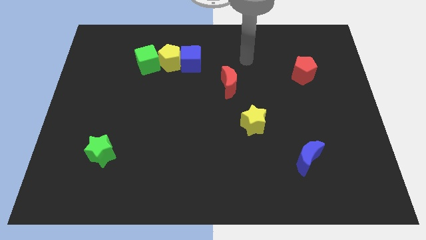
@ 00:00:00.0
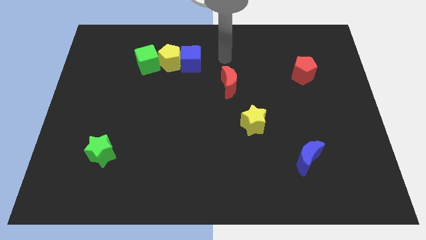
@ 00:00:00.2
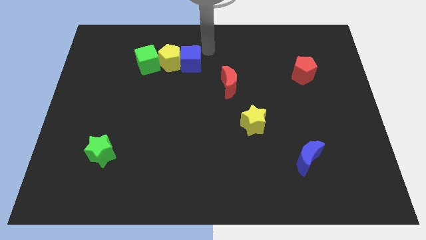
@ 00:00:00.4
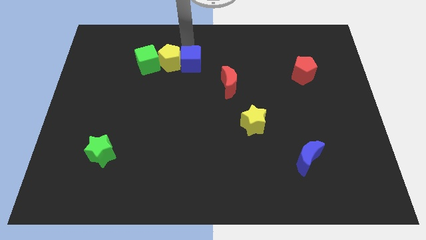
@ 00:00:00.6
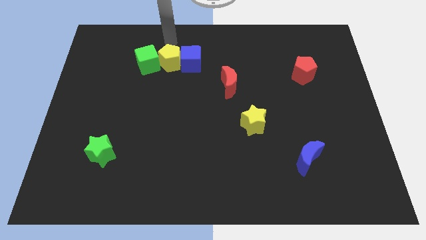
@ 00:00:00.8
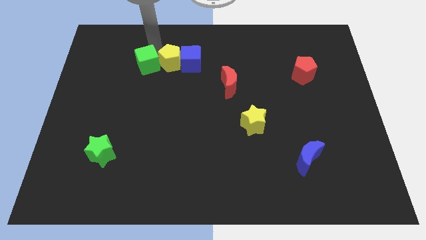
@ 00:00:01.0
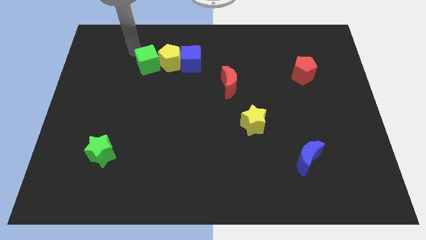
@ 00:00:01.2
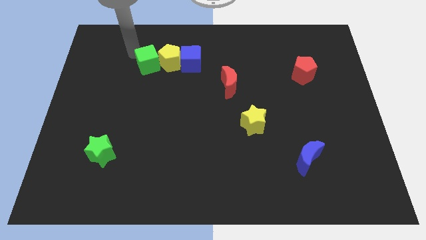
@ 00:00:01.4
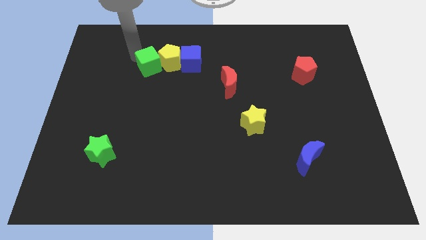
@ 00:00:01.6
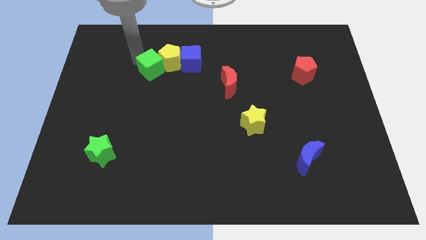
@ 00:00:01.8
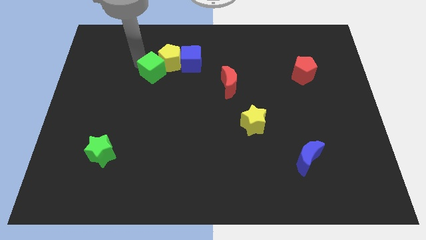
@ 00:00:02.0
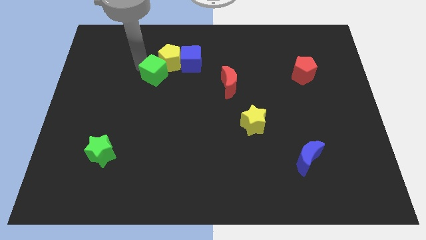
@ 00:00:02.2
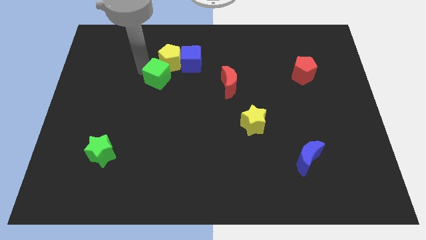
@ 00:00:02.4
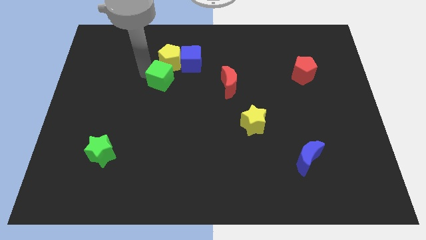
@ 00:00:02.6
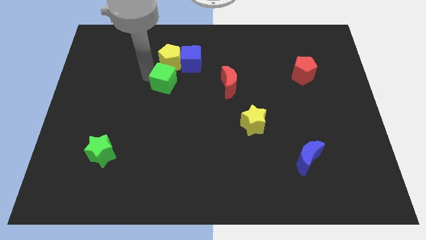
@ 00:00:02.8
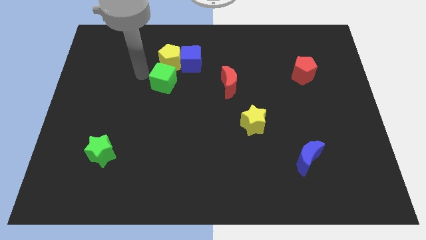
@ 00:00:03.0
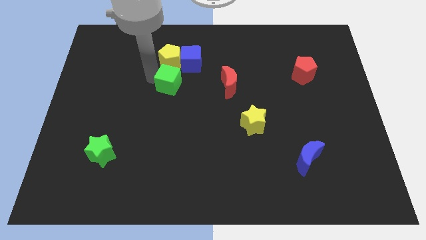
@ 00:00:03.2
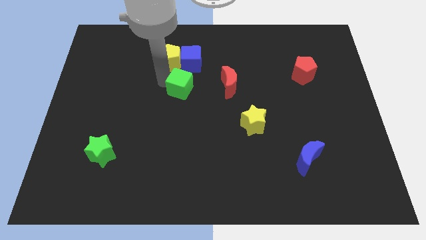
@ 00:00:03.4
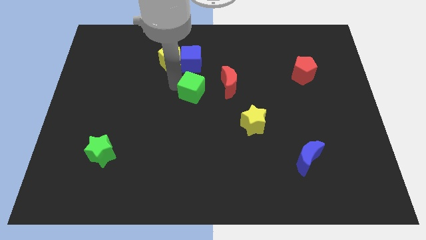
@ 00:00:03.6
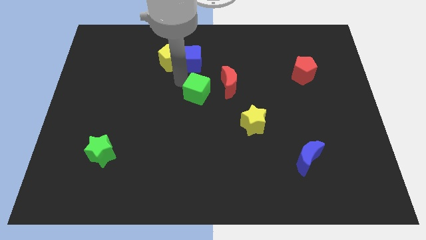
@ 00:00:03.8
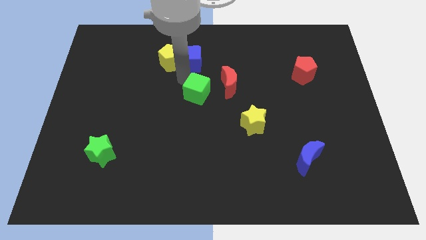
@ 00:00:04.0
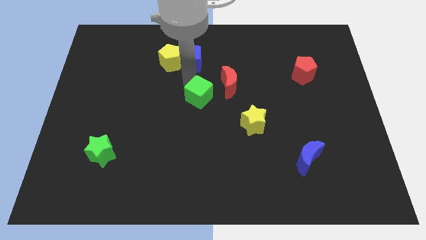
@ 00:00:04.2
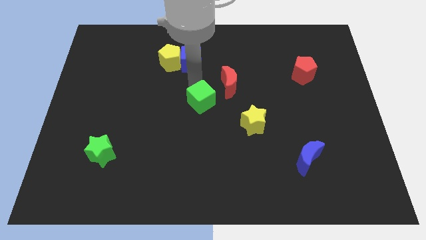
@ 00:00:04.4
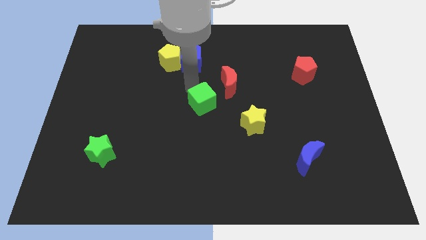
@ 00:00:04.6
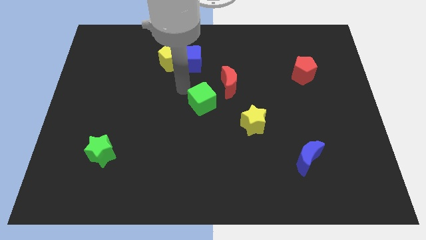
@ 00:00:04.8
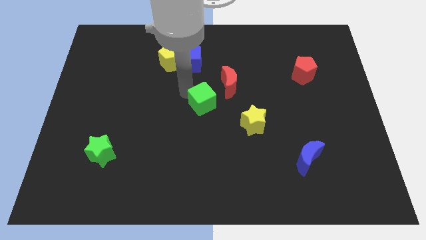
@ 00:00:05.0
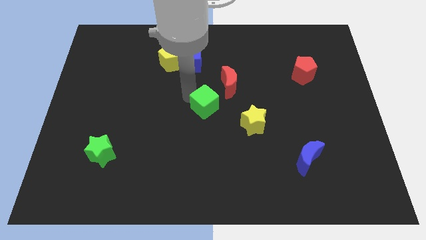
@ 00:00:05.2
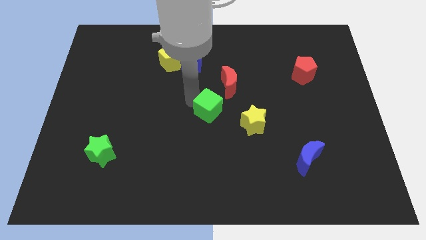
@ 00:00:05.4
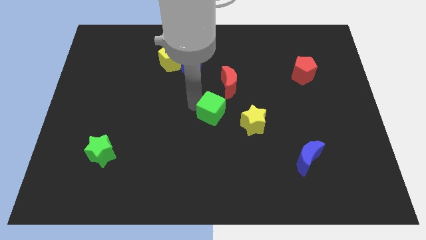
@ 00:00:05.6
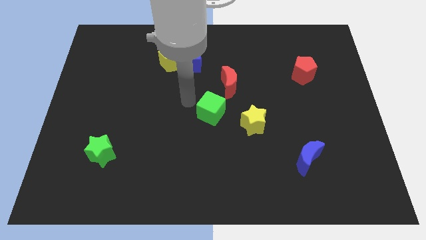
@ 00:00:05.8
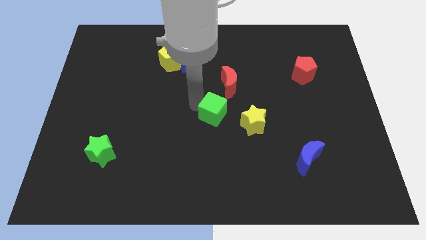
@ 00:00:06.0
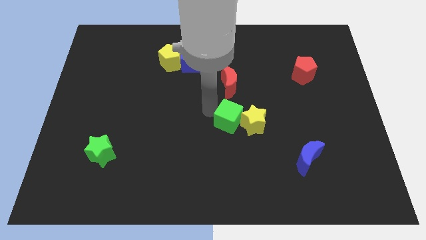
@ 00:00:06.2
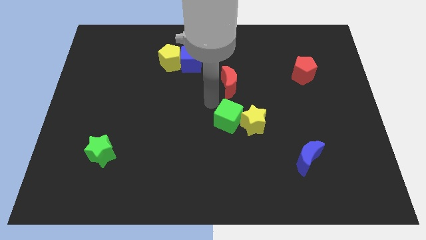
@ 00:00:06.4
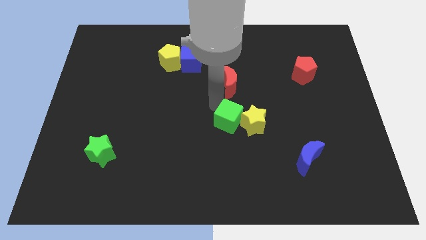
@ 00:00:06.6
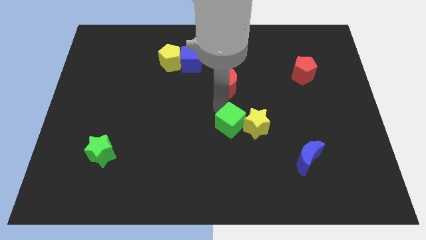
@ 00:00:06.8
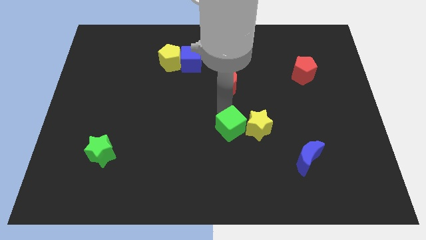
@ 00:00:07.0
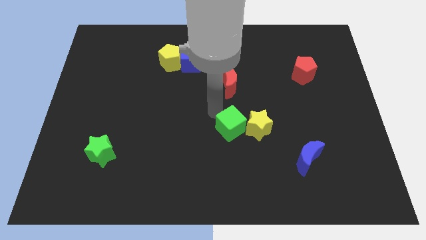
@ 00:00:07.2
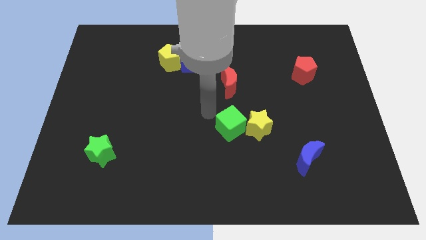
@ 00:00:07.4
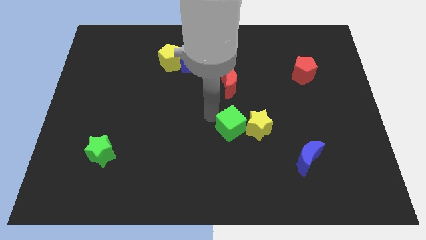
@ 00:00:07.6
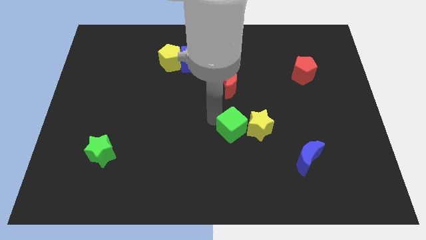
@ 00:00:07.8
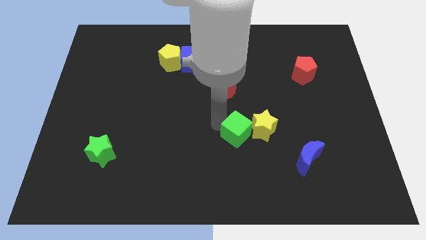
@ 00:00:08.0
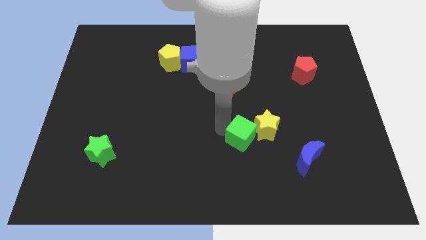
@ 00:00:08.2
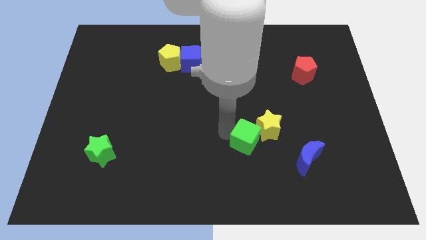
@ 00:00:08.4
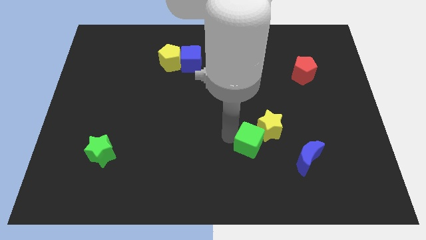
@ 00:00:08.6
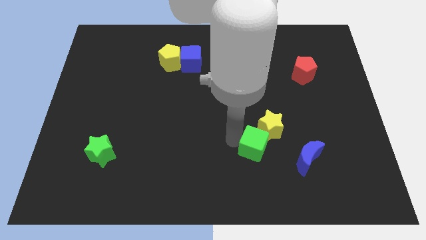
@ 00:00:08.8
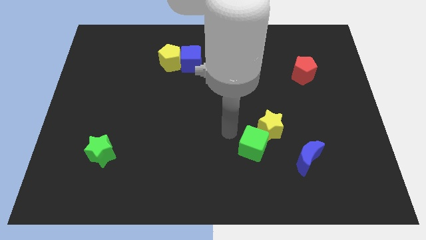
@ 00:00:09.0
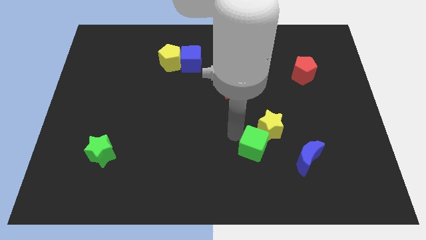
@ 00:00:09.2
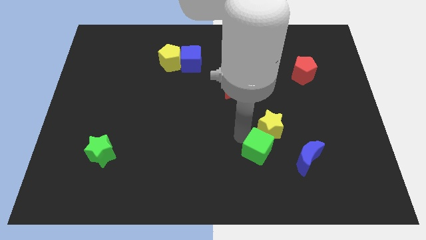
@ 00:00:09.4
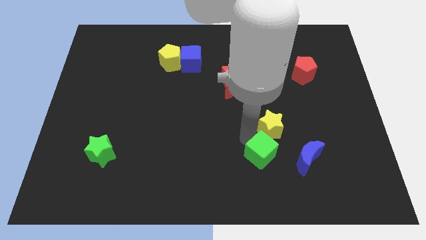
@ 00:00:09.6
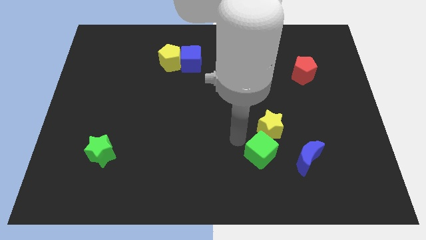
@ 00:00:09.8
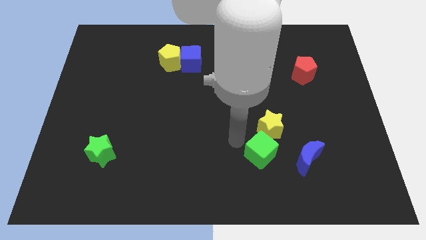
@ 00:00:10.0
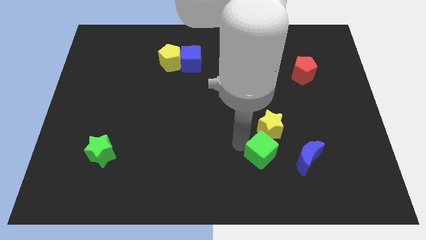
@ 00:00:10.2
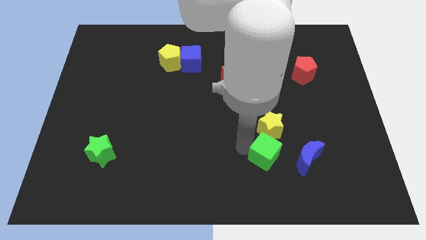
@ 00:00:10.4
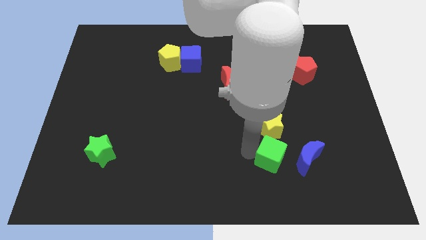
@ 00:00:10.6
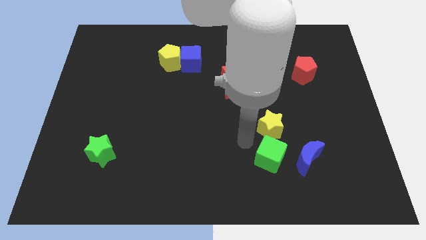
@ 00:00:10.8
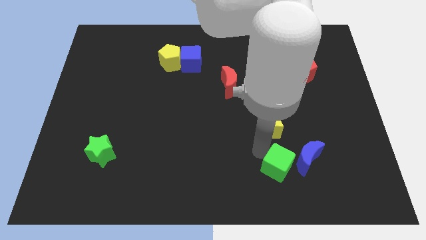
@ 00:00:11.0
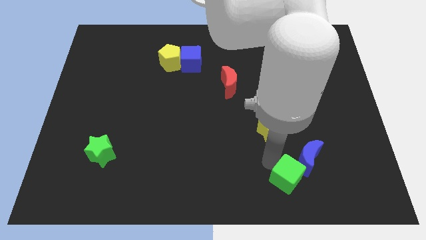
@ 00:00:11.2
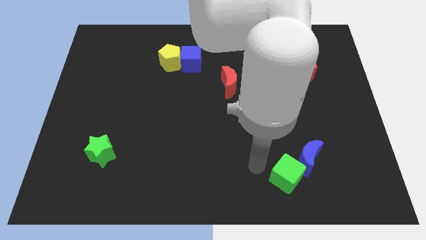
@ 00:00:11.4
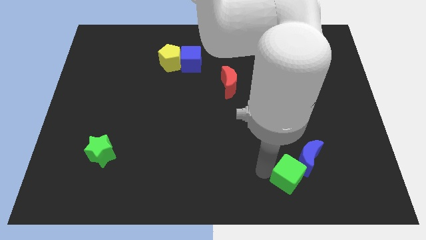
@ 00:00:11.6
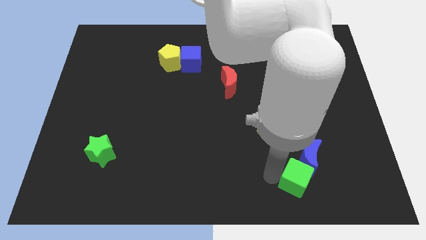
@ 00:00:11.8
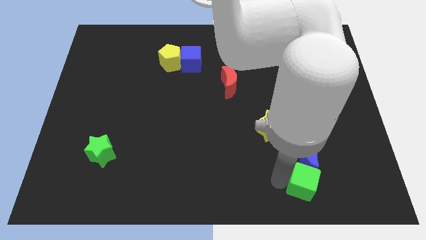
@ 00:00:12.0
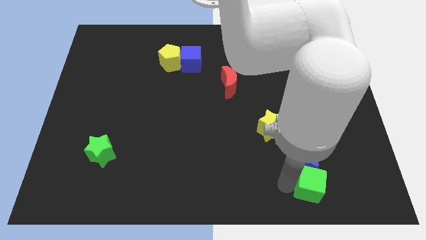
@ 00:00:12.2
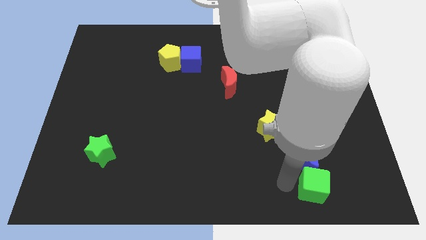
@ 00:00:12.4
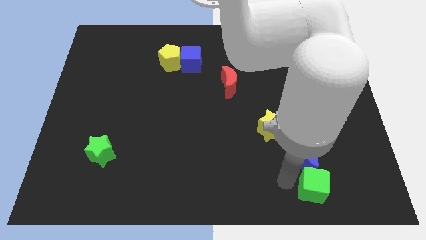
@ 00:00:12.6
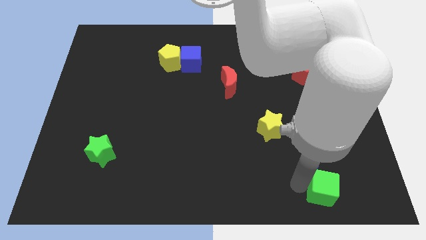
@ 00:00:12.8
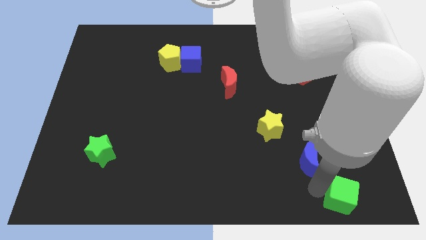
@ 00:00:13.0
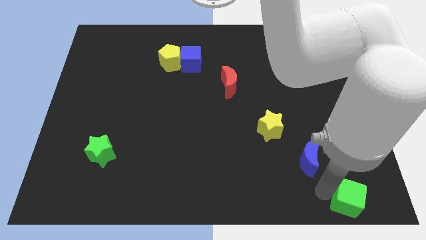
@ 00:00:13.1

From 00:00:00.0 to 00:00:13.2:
slide the green cube to the bottom right

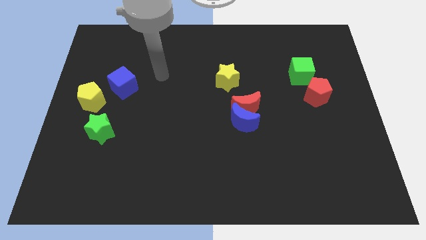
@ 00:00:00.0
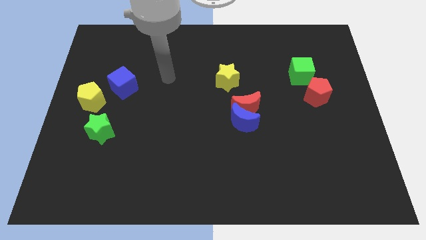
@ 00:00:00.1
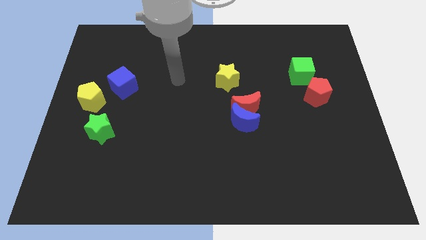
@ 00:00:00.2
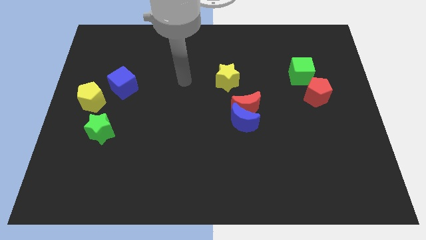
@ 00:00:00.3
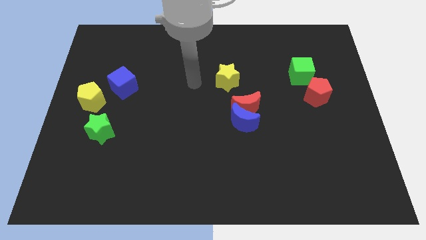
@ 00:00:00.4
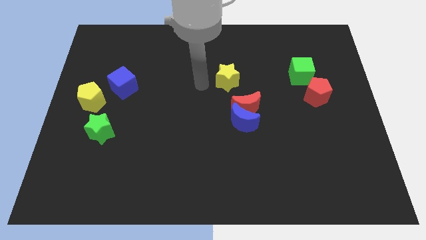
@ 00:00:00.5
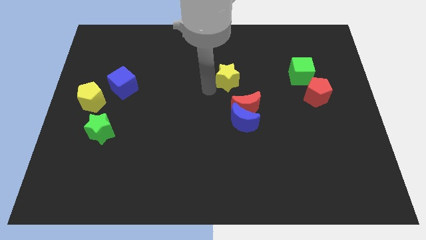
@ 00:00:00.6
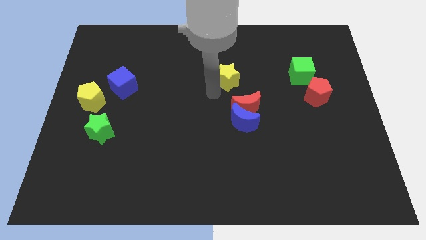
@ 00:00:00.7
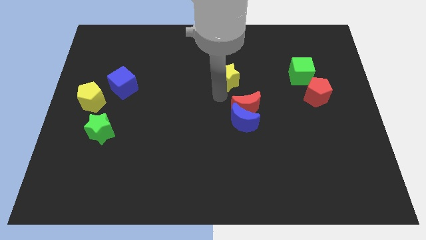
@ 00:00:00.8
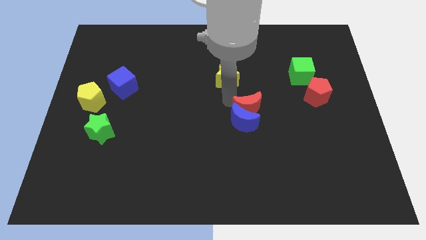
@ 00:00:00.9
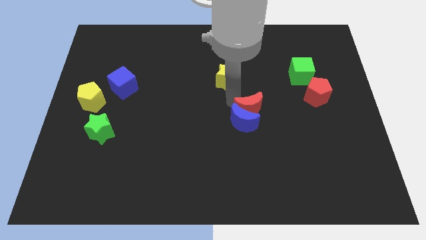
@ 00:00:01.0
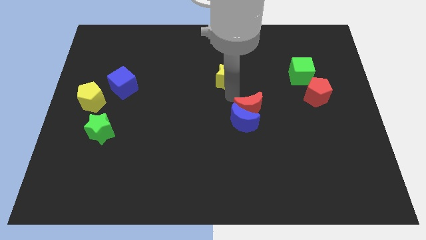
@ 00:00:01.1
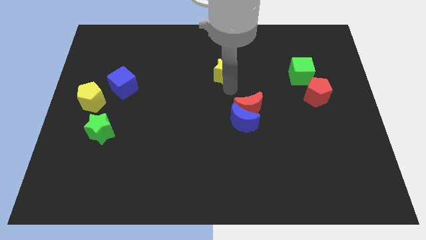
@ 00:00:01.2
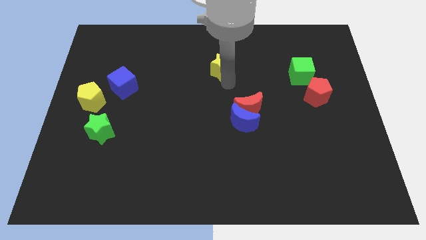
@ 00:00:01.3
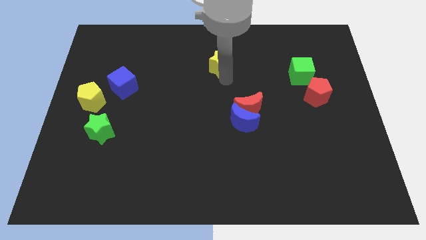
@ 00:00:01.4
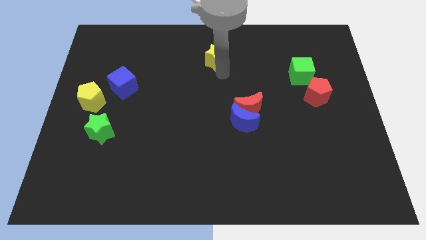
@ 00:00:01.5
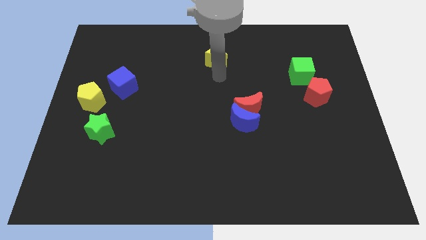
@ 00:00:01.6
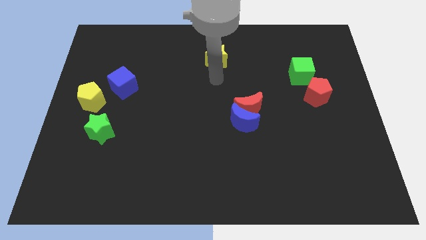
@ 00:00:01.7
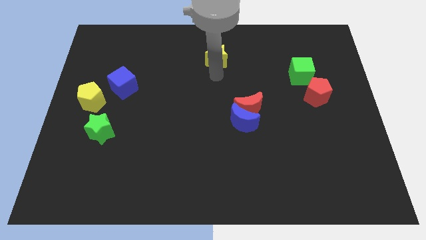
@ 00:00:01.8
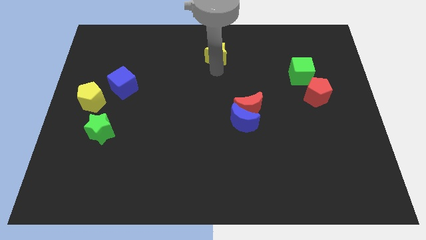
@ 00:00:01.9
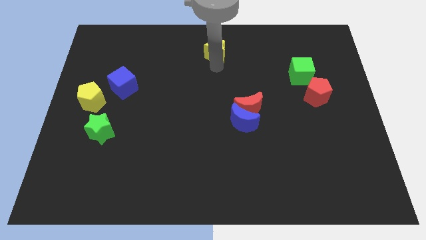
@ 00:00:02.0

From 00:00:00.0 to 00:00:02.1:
put the yellow star to the top side
